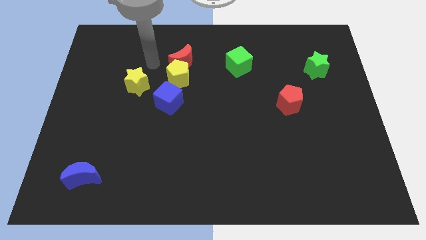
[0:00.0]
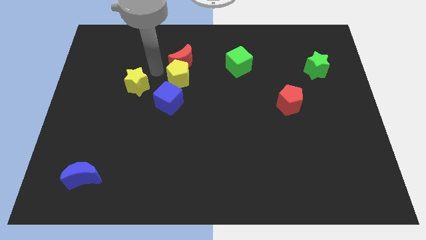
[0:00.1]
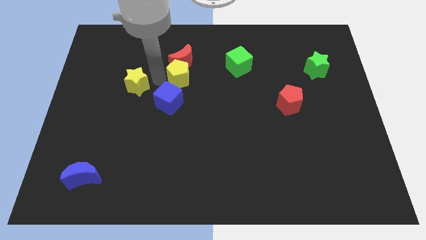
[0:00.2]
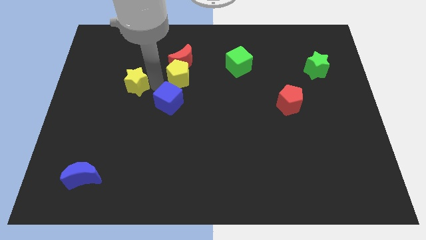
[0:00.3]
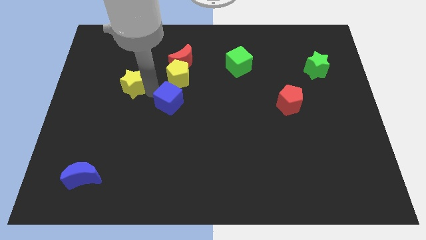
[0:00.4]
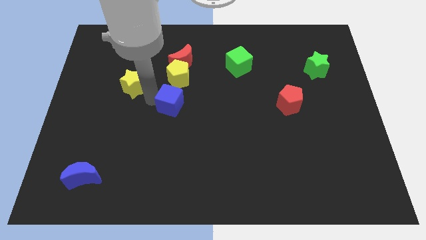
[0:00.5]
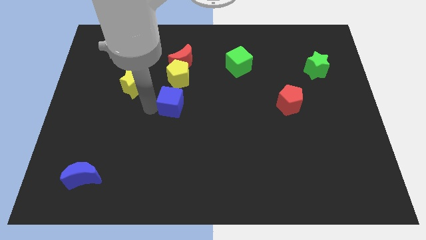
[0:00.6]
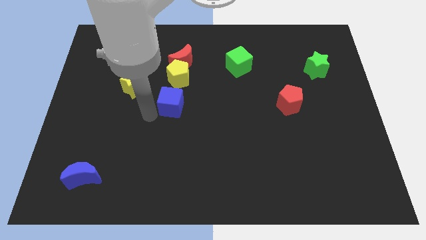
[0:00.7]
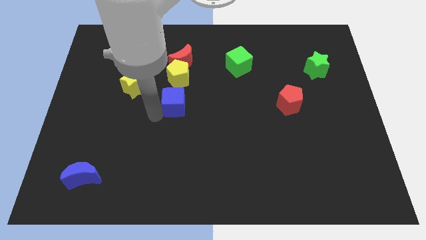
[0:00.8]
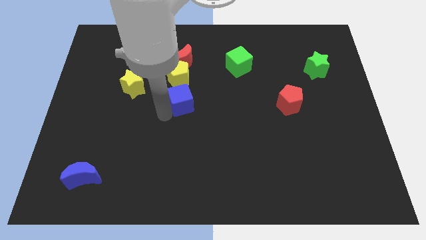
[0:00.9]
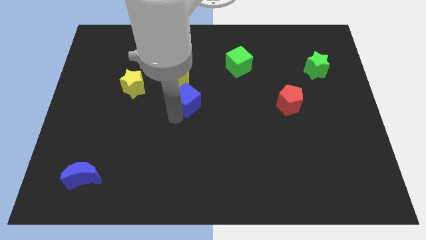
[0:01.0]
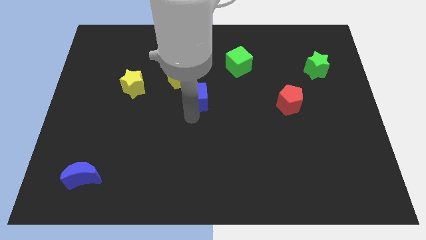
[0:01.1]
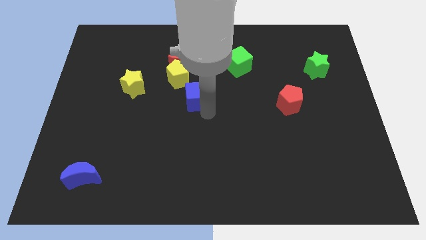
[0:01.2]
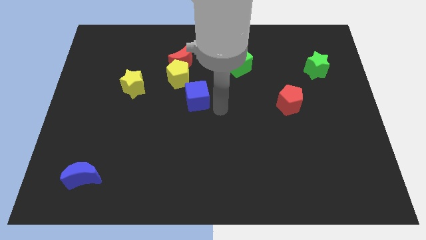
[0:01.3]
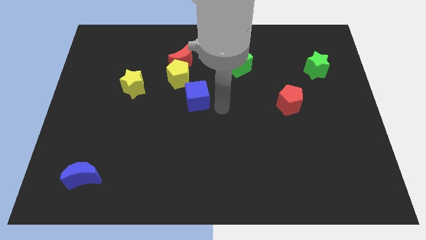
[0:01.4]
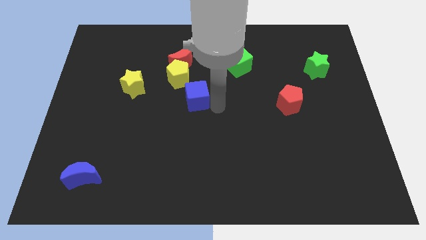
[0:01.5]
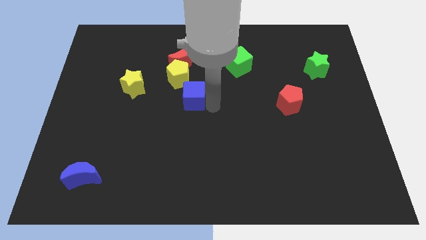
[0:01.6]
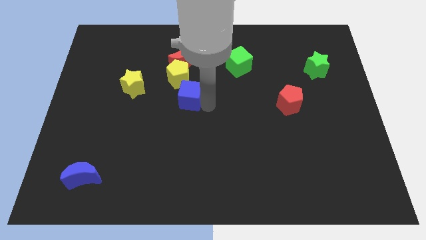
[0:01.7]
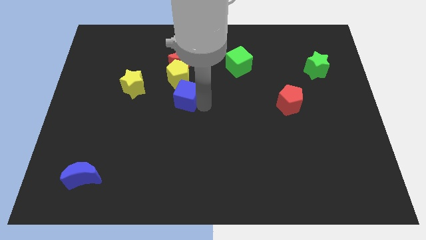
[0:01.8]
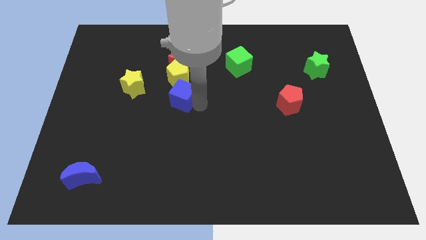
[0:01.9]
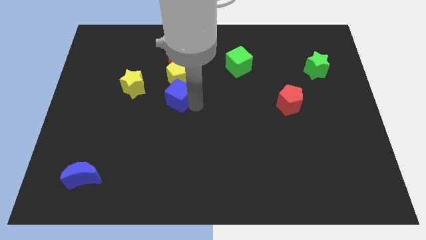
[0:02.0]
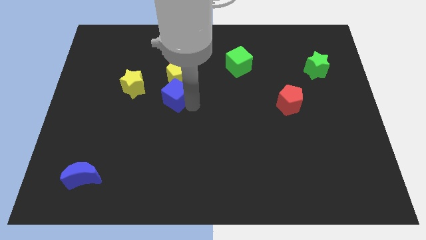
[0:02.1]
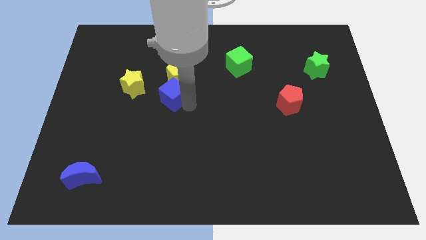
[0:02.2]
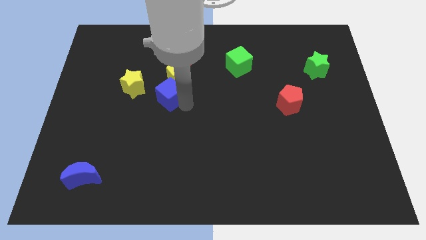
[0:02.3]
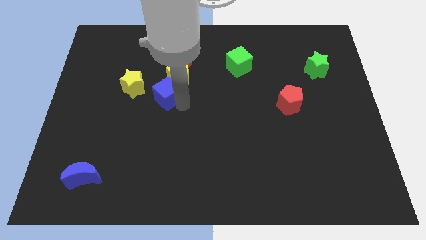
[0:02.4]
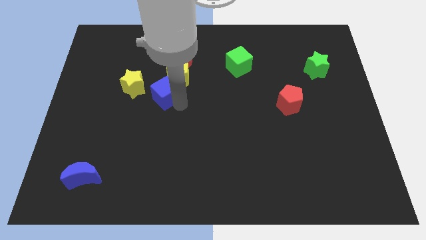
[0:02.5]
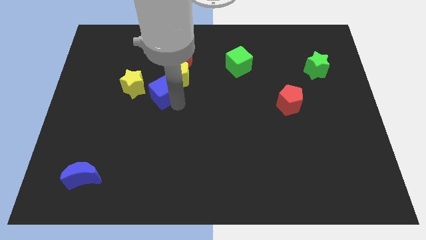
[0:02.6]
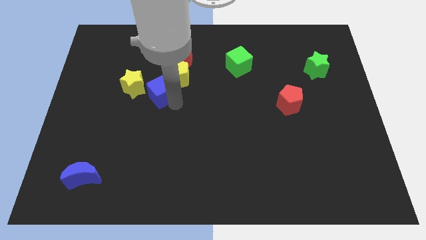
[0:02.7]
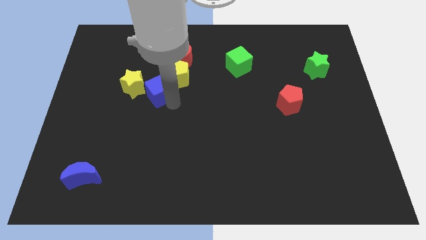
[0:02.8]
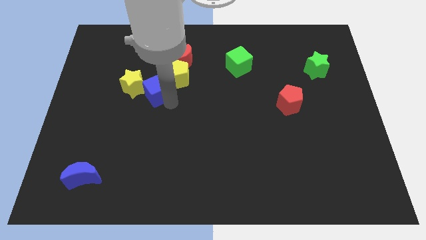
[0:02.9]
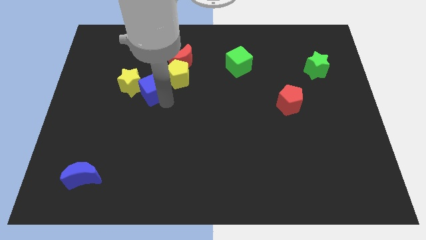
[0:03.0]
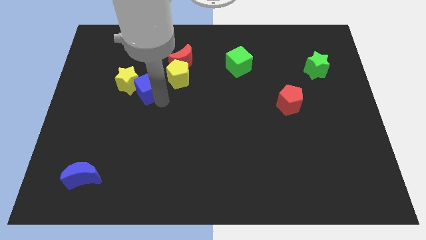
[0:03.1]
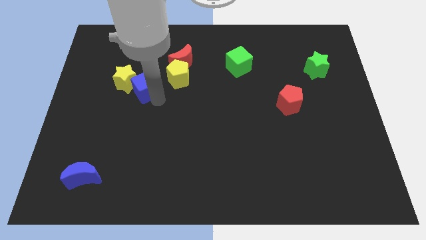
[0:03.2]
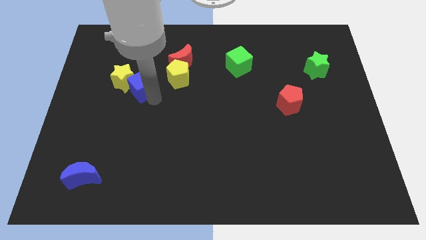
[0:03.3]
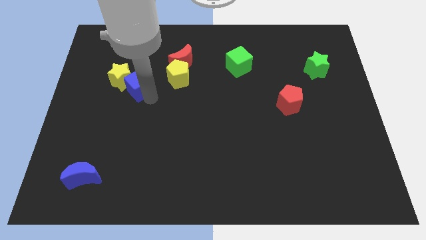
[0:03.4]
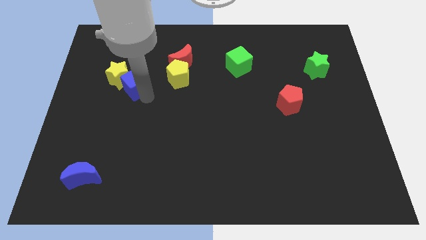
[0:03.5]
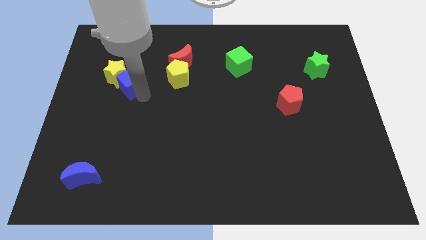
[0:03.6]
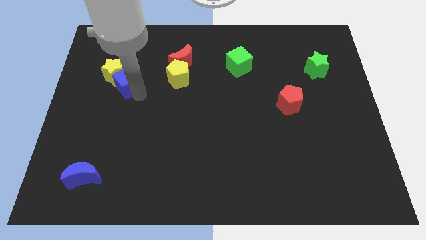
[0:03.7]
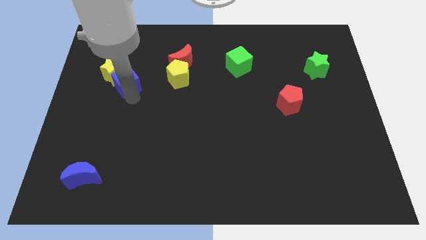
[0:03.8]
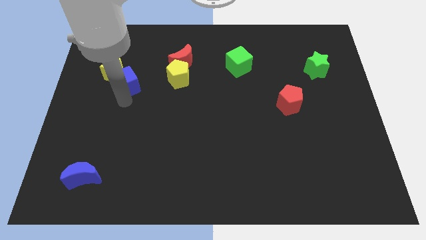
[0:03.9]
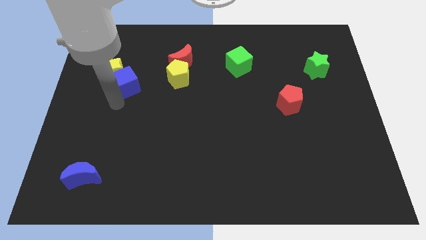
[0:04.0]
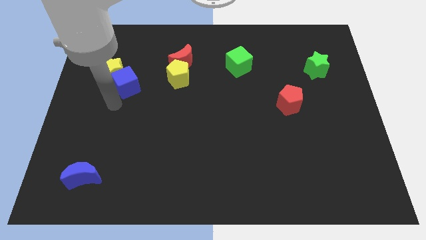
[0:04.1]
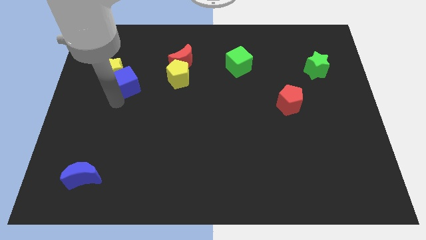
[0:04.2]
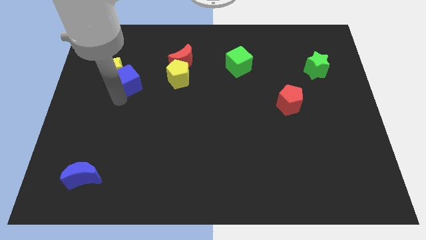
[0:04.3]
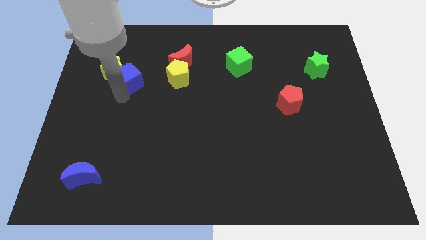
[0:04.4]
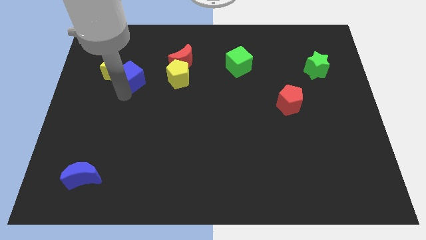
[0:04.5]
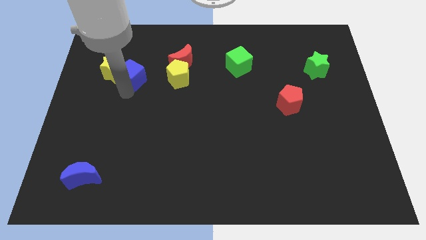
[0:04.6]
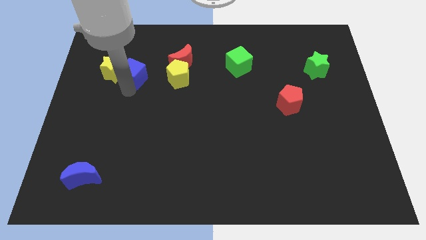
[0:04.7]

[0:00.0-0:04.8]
slide the blue cube just left of the red moon

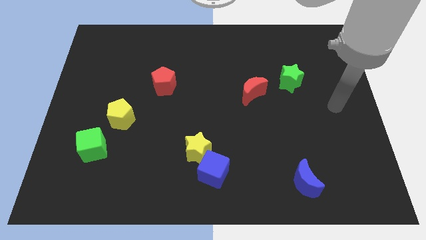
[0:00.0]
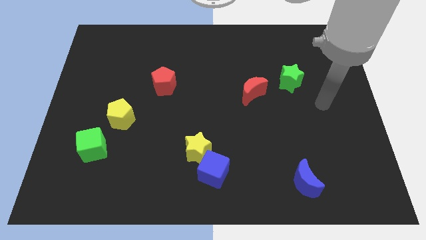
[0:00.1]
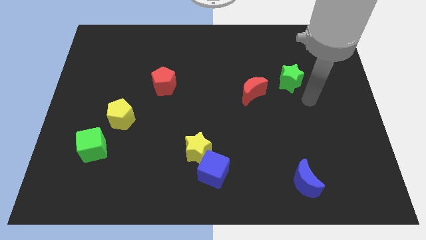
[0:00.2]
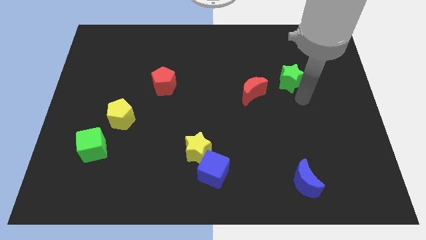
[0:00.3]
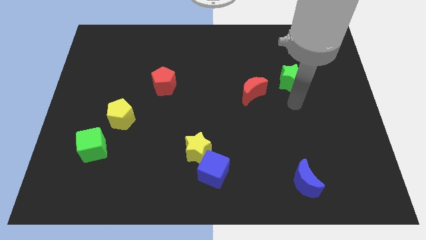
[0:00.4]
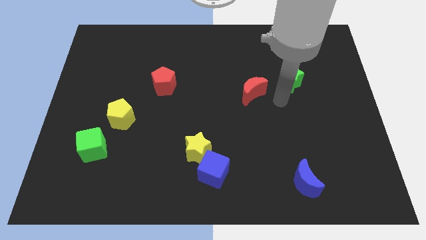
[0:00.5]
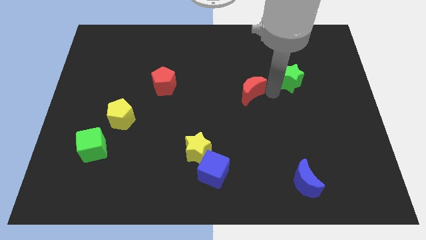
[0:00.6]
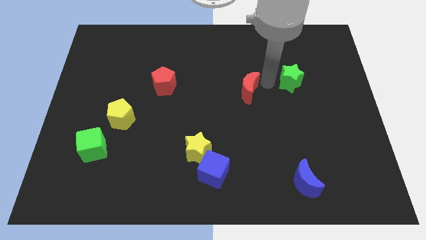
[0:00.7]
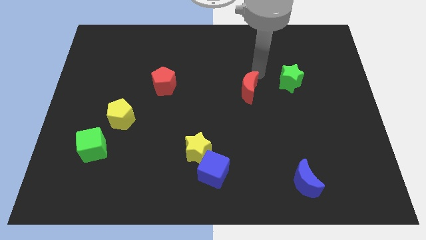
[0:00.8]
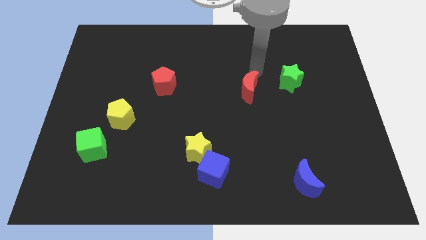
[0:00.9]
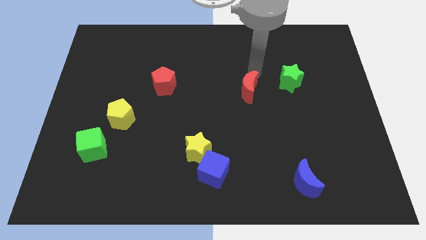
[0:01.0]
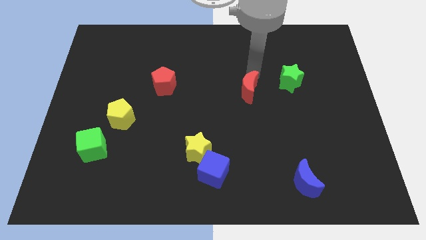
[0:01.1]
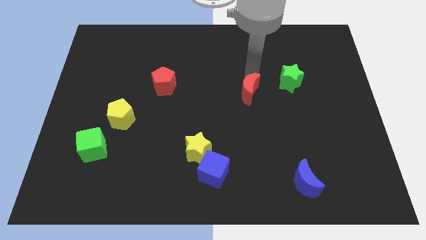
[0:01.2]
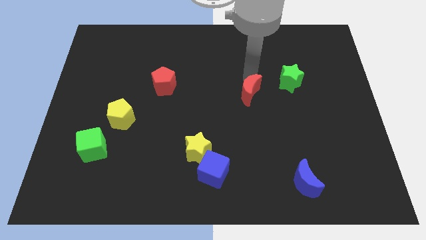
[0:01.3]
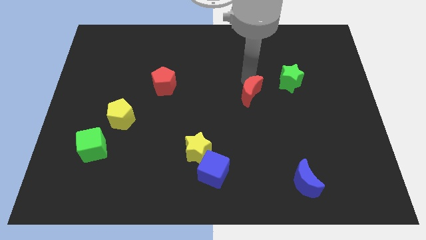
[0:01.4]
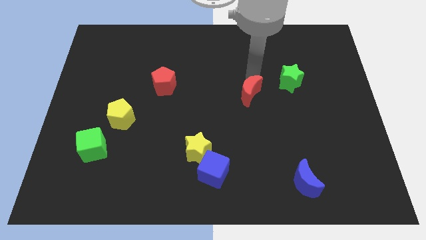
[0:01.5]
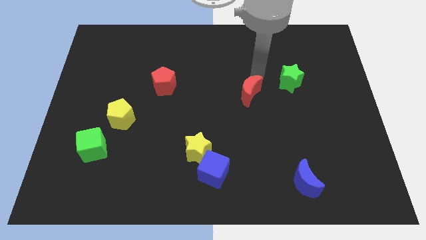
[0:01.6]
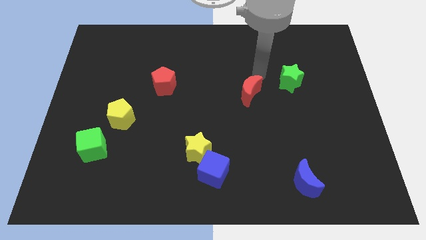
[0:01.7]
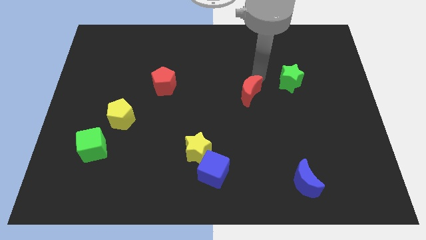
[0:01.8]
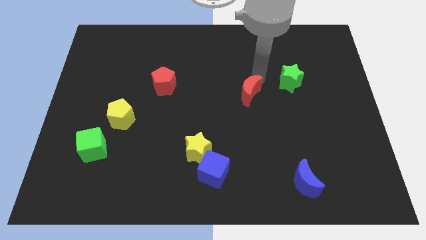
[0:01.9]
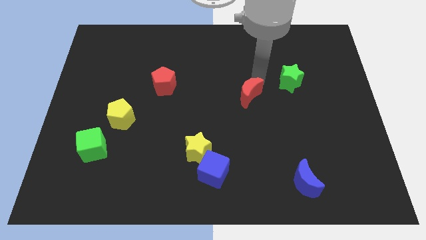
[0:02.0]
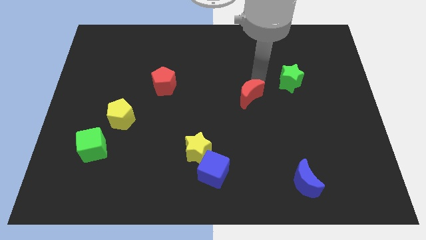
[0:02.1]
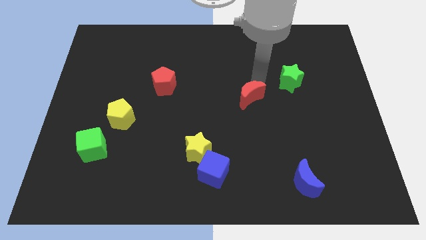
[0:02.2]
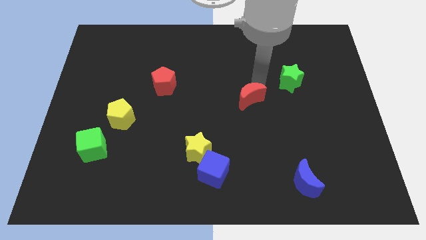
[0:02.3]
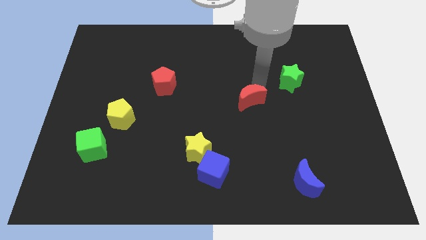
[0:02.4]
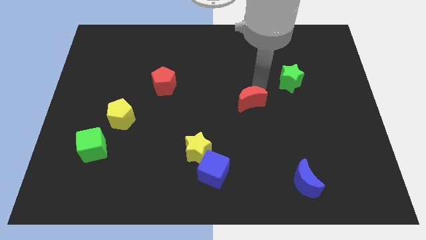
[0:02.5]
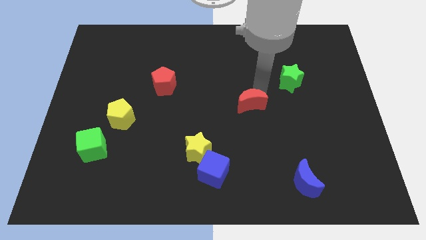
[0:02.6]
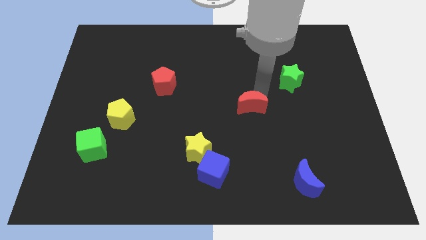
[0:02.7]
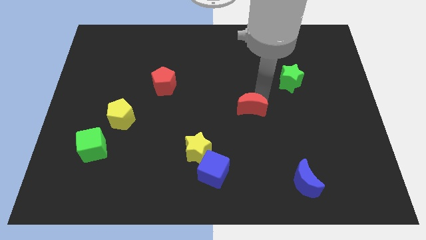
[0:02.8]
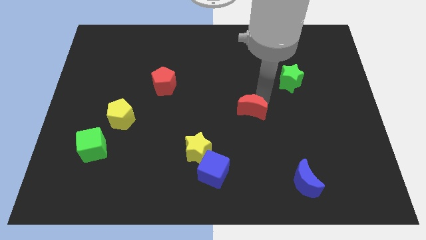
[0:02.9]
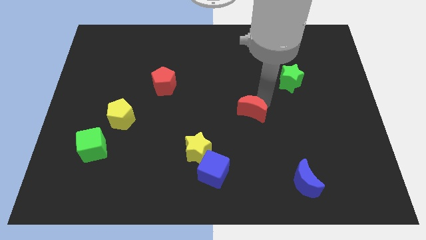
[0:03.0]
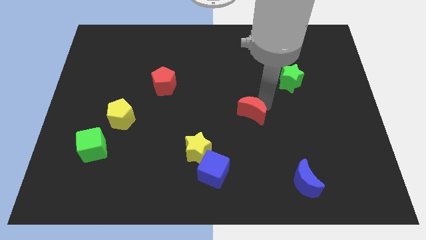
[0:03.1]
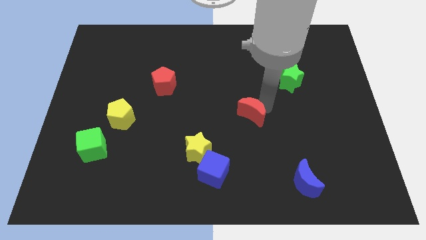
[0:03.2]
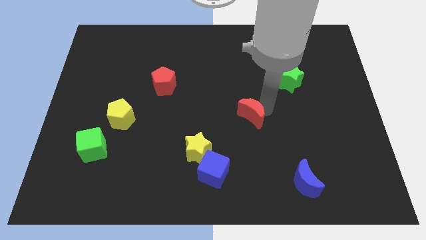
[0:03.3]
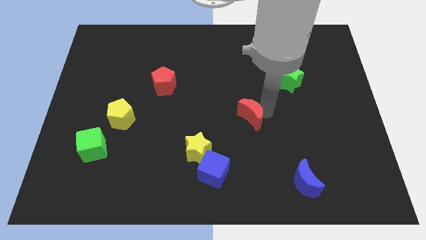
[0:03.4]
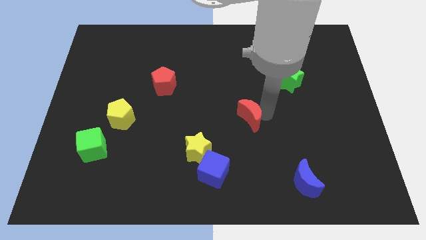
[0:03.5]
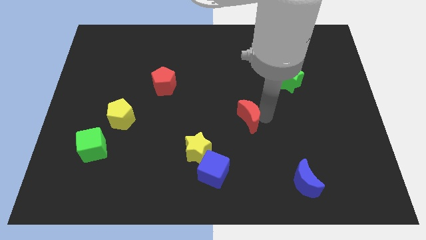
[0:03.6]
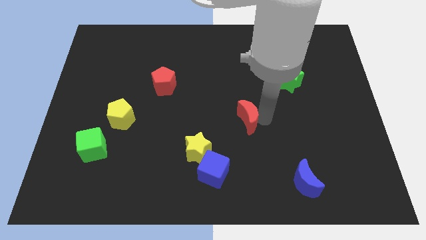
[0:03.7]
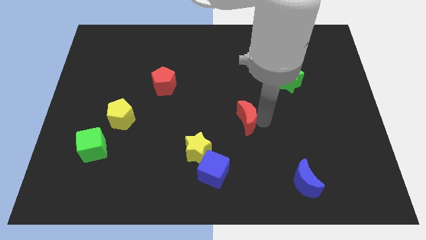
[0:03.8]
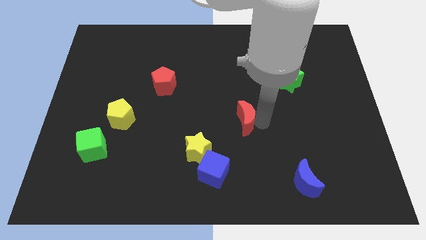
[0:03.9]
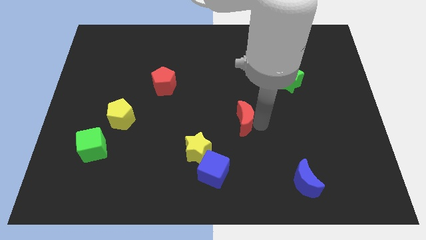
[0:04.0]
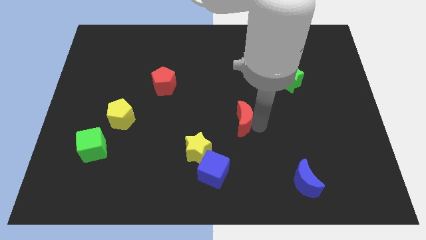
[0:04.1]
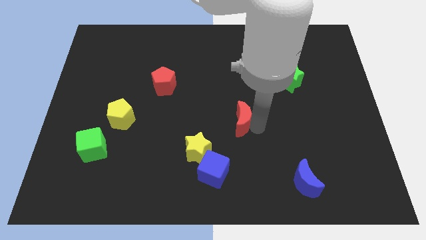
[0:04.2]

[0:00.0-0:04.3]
slide the red moon to the top right side of the yellow star
